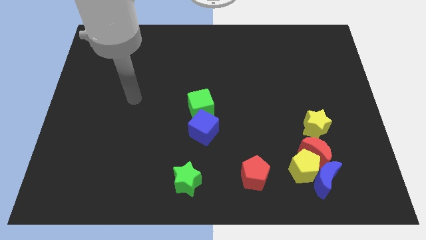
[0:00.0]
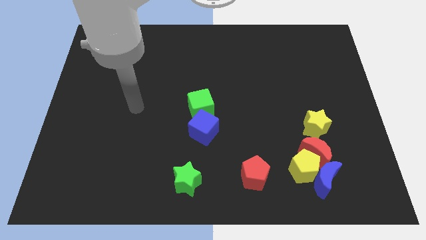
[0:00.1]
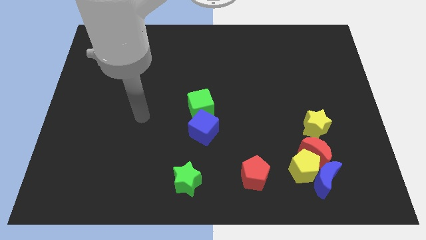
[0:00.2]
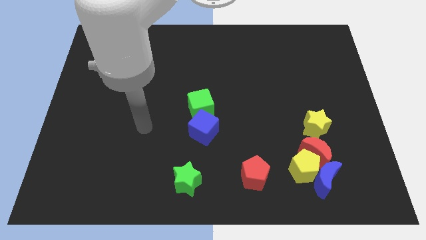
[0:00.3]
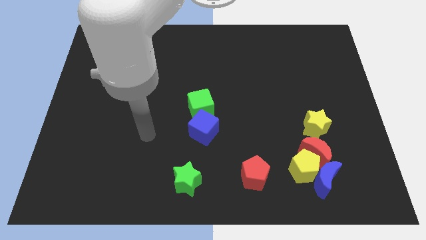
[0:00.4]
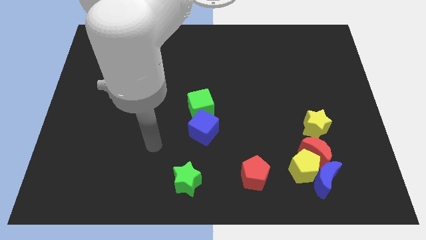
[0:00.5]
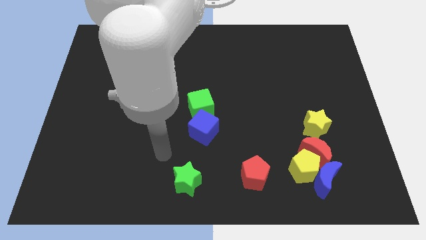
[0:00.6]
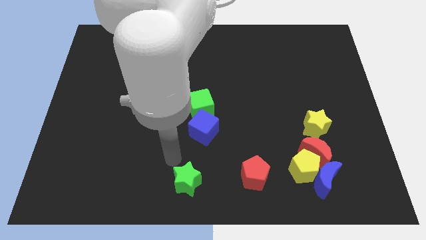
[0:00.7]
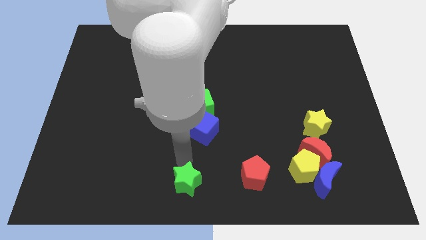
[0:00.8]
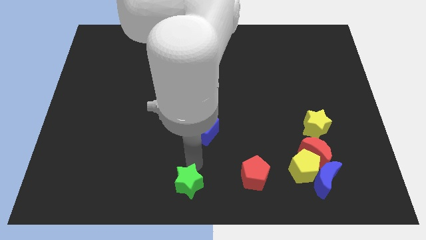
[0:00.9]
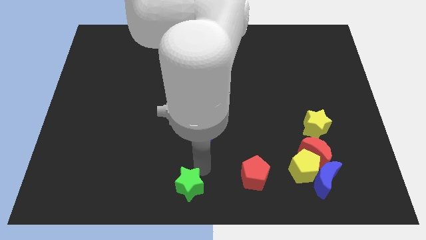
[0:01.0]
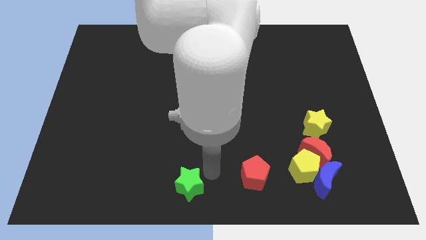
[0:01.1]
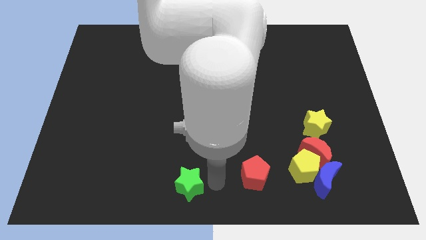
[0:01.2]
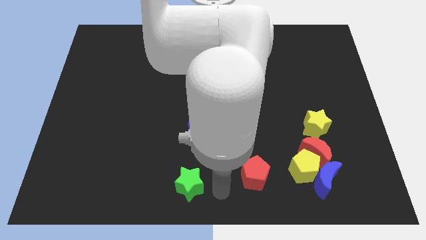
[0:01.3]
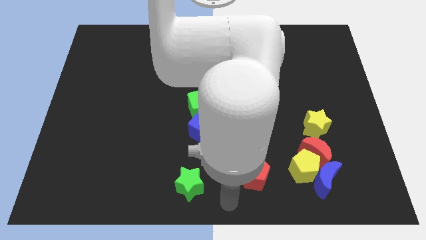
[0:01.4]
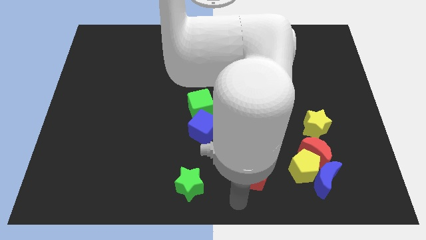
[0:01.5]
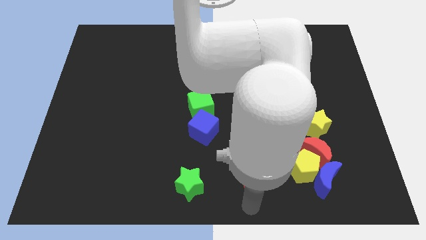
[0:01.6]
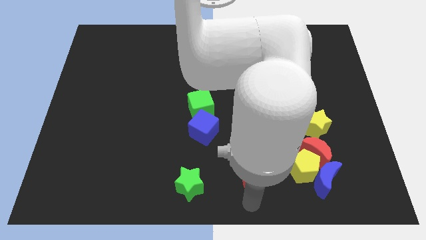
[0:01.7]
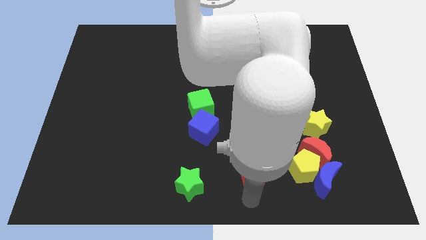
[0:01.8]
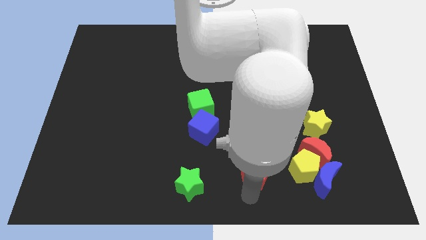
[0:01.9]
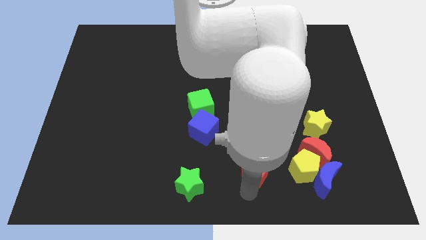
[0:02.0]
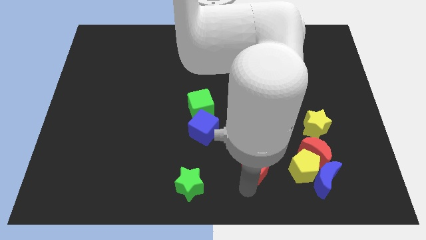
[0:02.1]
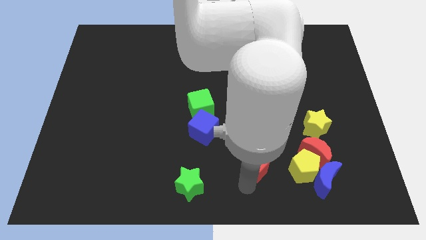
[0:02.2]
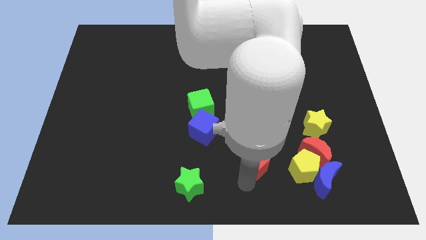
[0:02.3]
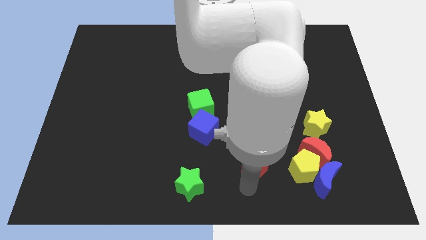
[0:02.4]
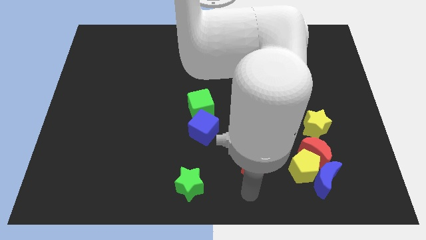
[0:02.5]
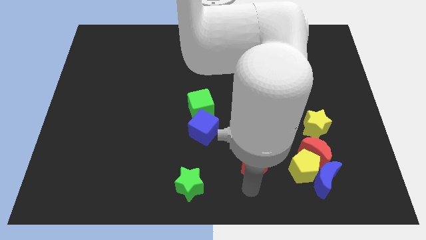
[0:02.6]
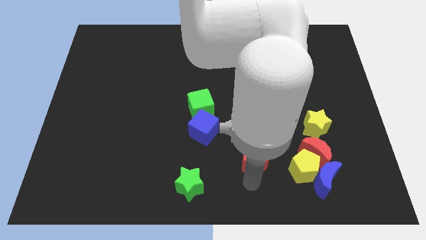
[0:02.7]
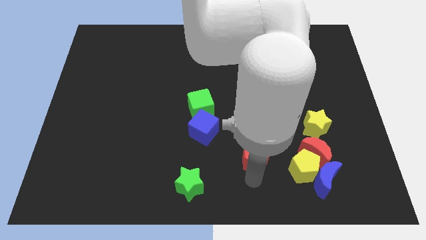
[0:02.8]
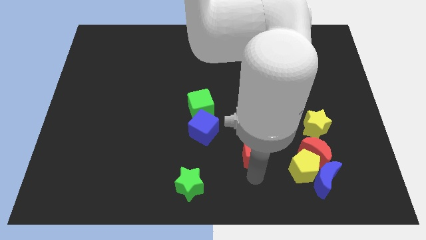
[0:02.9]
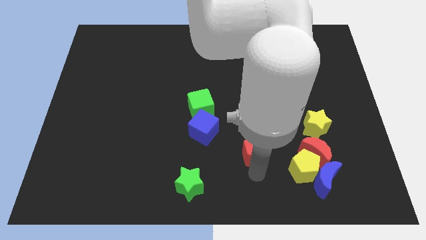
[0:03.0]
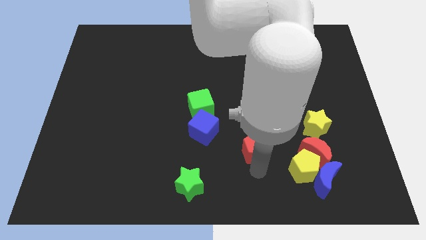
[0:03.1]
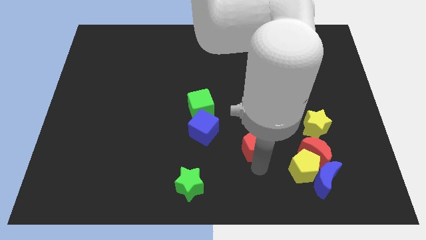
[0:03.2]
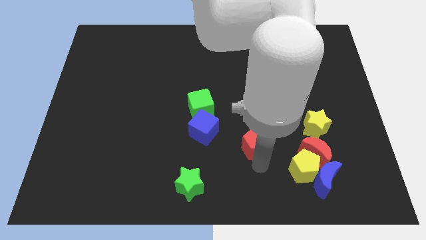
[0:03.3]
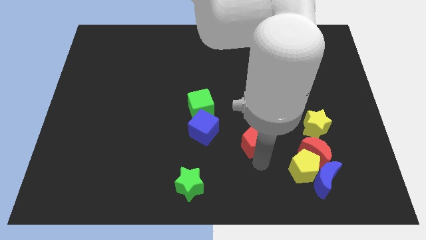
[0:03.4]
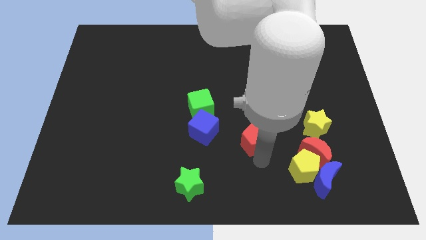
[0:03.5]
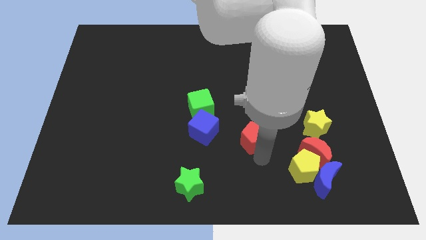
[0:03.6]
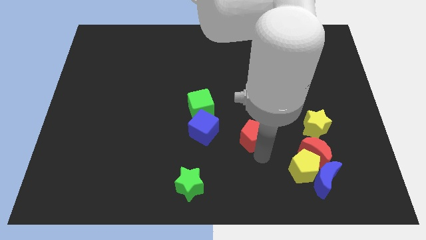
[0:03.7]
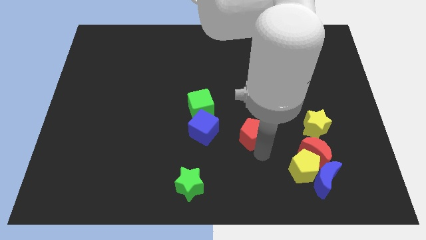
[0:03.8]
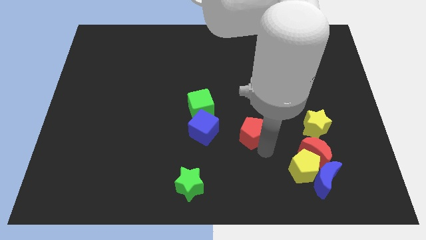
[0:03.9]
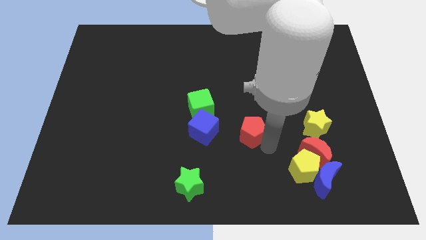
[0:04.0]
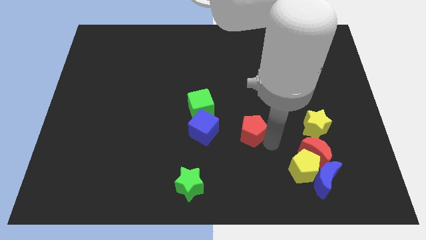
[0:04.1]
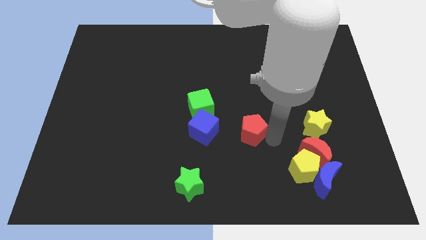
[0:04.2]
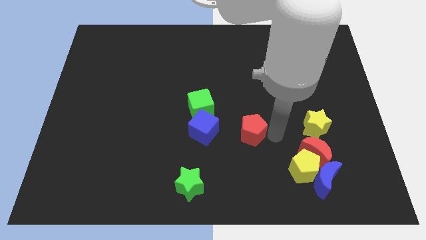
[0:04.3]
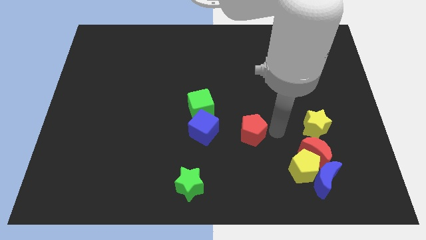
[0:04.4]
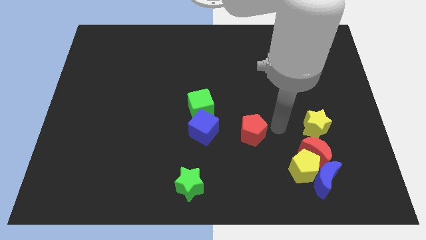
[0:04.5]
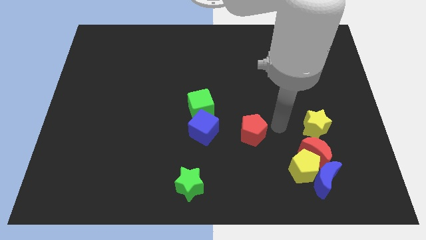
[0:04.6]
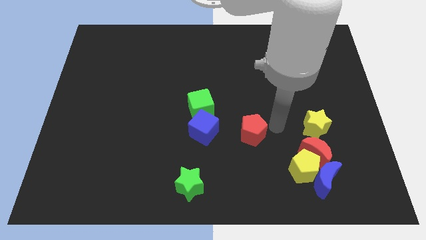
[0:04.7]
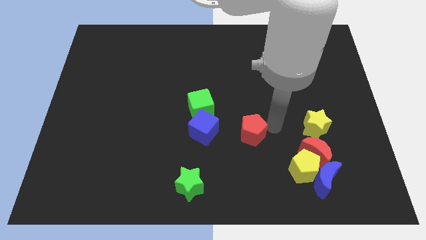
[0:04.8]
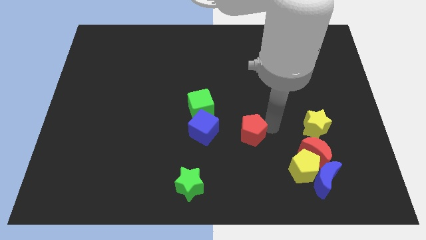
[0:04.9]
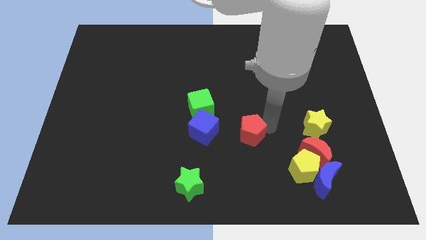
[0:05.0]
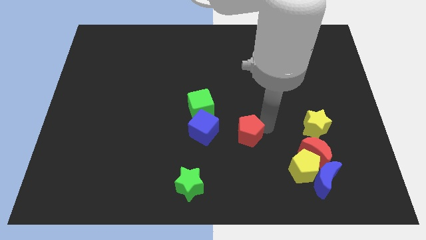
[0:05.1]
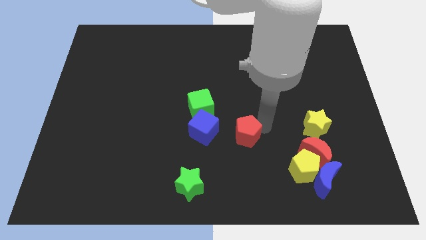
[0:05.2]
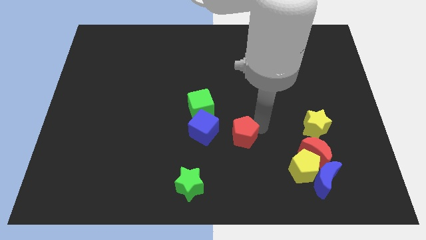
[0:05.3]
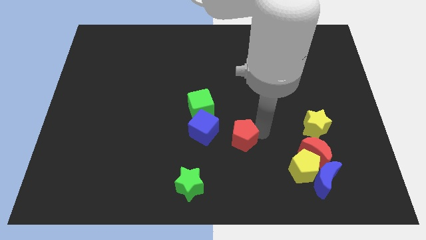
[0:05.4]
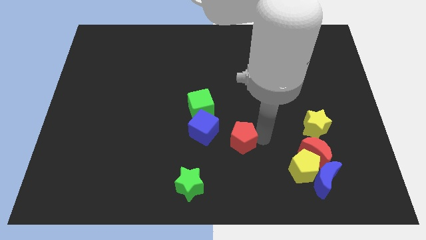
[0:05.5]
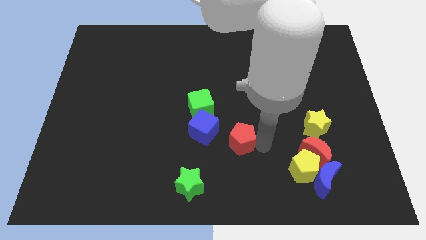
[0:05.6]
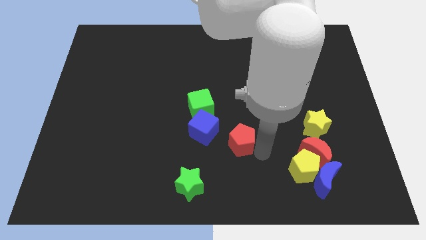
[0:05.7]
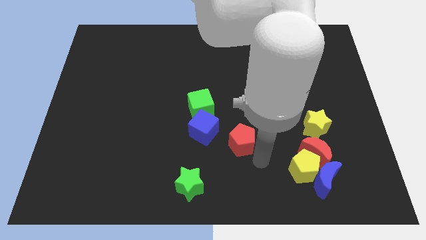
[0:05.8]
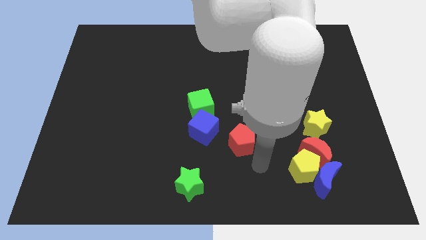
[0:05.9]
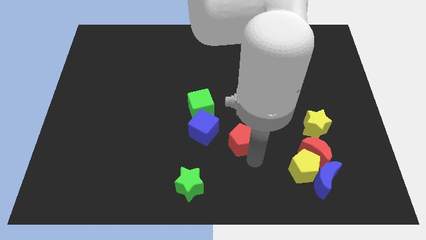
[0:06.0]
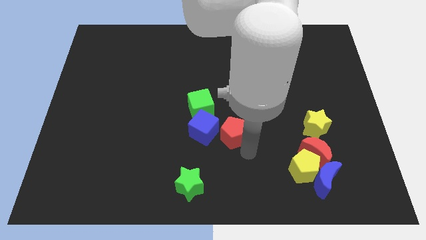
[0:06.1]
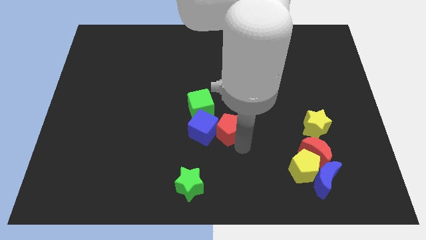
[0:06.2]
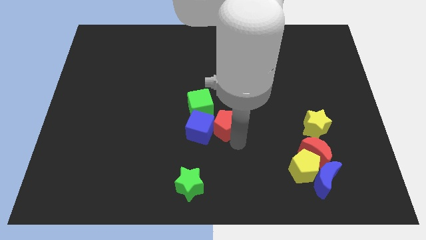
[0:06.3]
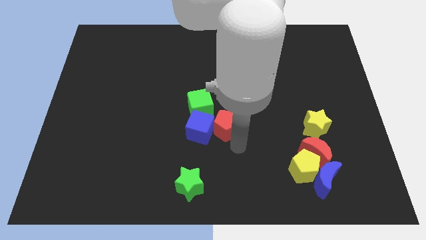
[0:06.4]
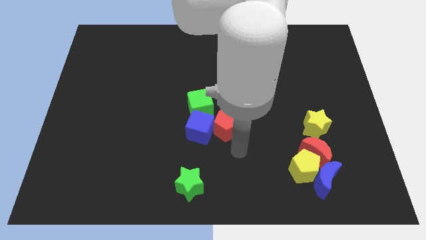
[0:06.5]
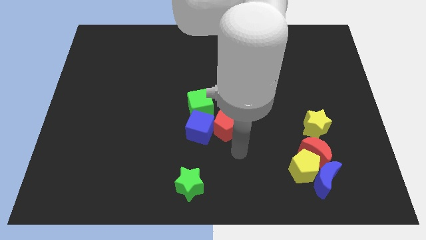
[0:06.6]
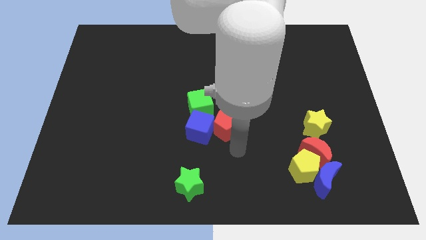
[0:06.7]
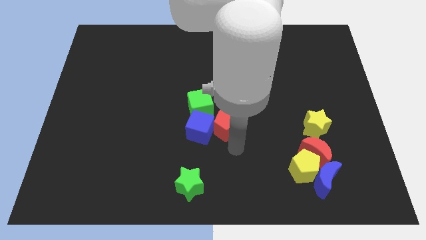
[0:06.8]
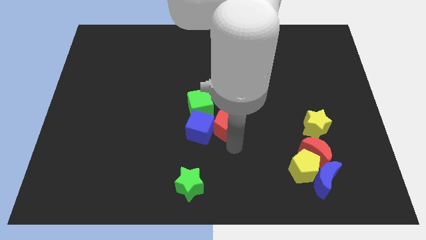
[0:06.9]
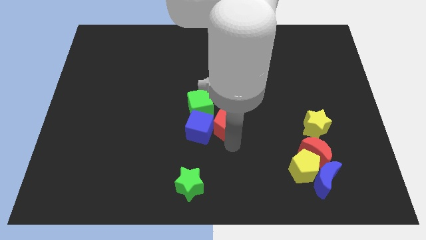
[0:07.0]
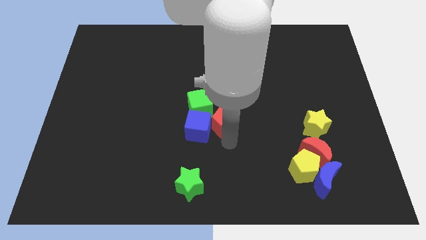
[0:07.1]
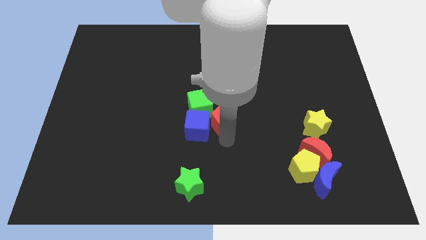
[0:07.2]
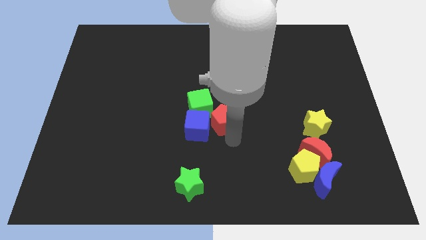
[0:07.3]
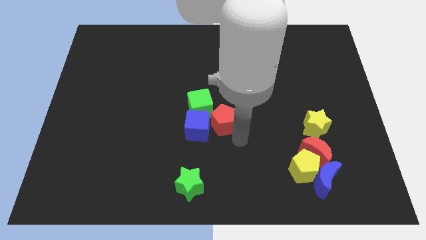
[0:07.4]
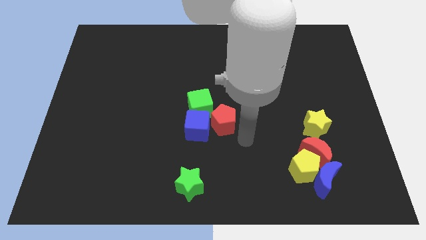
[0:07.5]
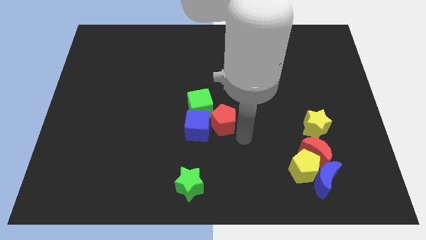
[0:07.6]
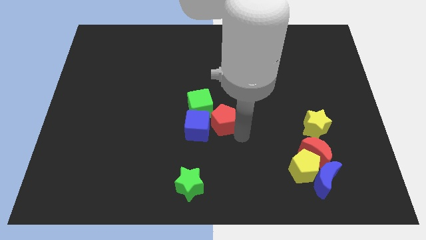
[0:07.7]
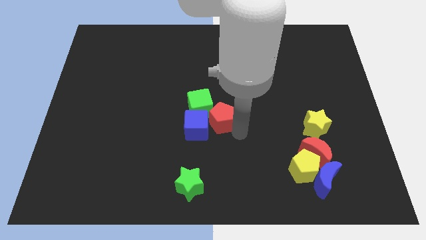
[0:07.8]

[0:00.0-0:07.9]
put the red pentagon close to the green cube
